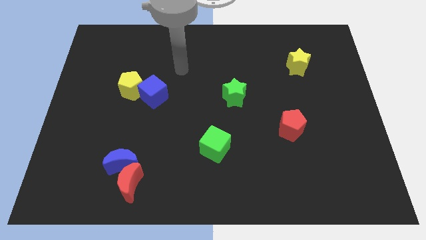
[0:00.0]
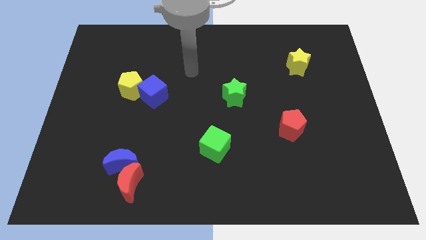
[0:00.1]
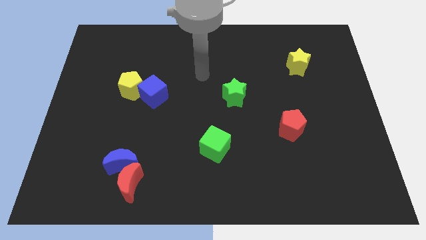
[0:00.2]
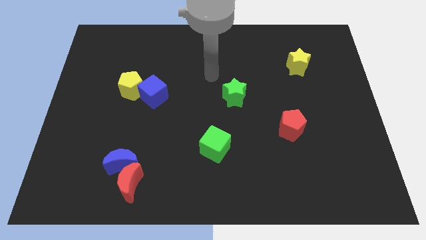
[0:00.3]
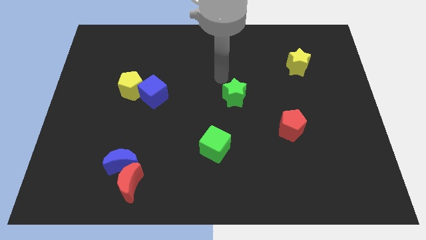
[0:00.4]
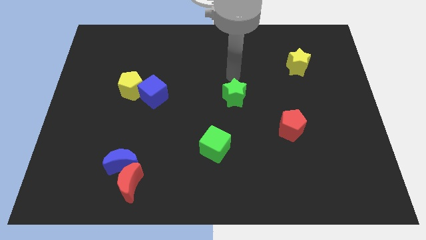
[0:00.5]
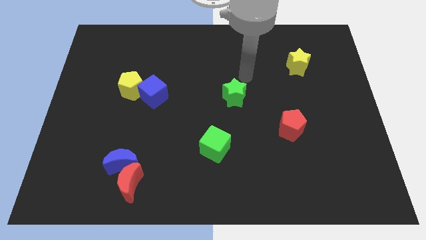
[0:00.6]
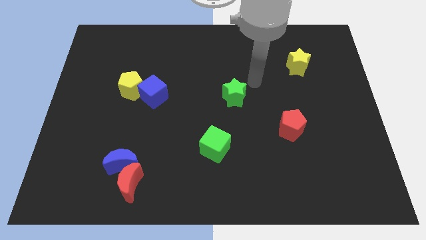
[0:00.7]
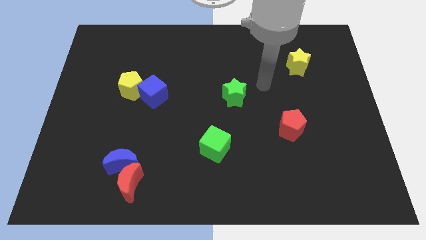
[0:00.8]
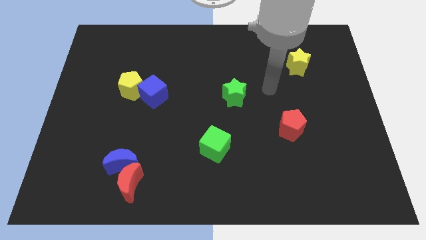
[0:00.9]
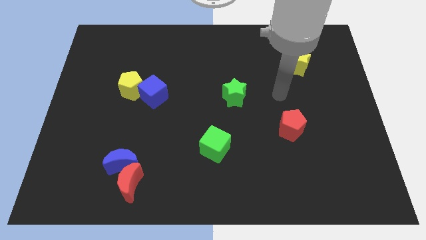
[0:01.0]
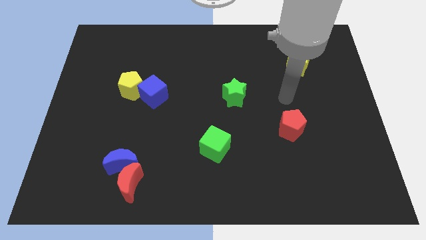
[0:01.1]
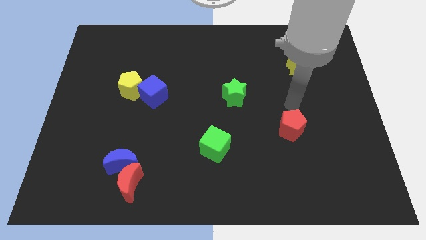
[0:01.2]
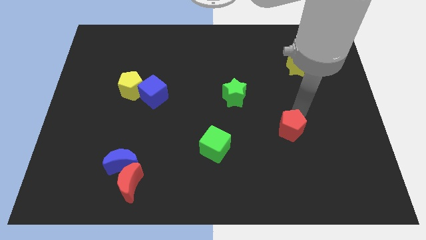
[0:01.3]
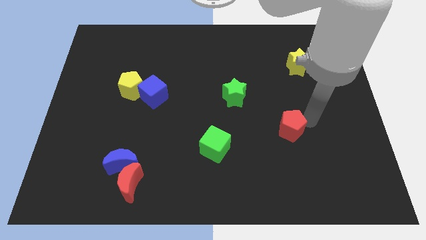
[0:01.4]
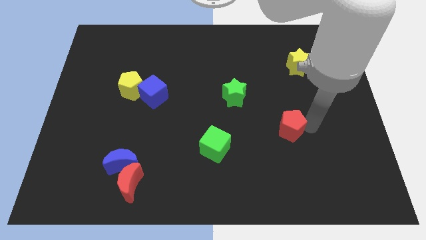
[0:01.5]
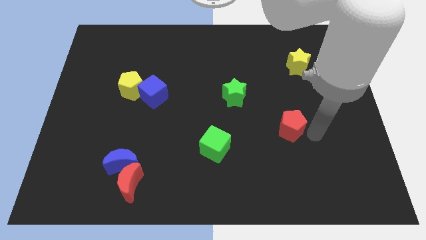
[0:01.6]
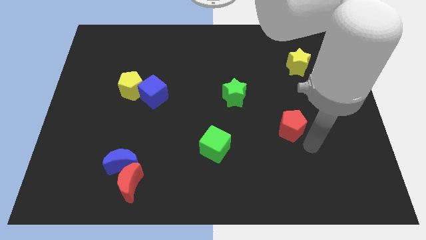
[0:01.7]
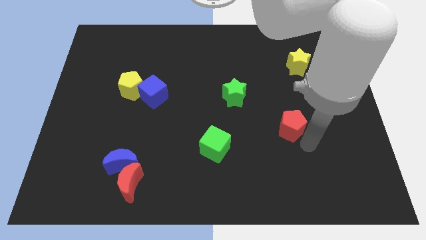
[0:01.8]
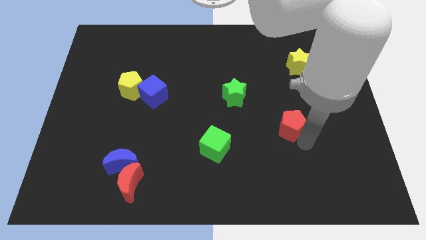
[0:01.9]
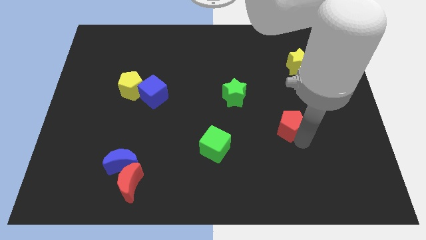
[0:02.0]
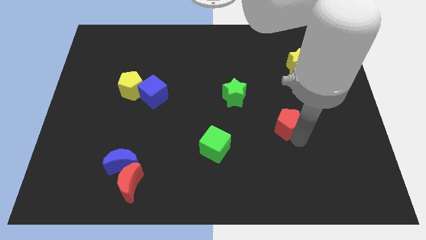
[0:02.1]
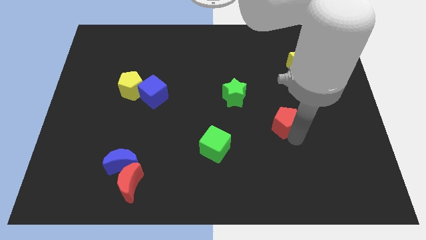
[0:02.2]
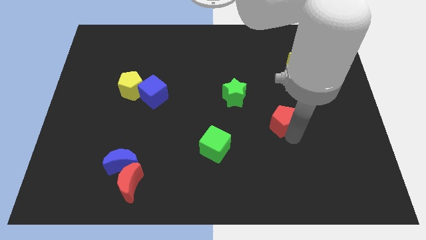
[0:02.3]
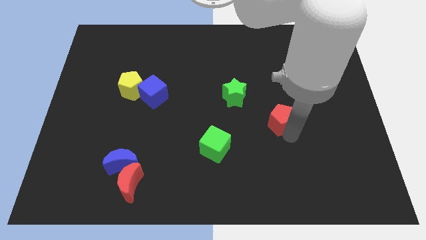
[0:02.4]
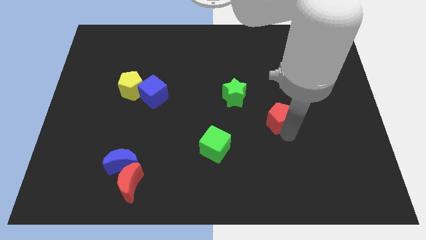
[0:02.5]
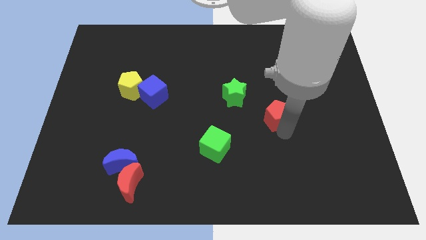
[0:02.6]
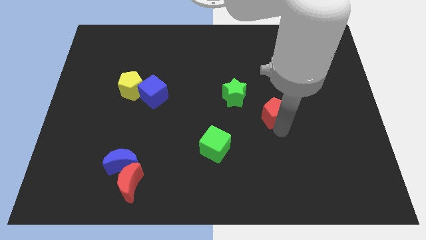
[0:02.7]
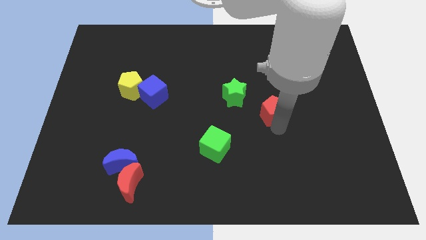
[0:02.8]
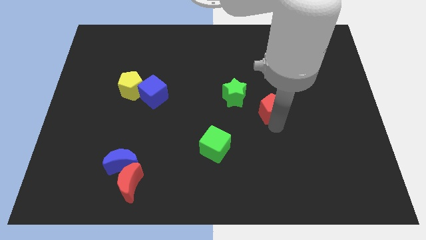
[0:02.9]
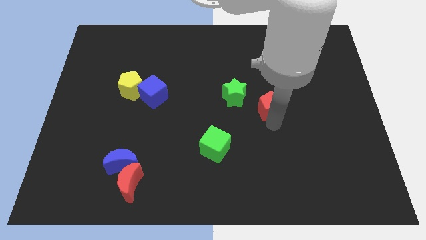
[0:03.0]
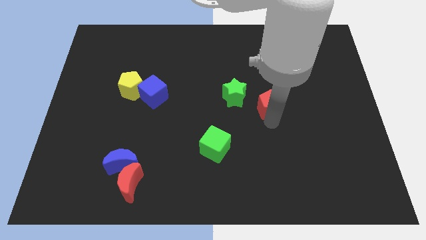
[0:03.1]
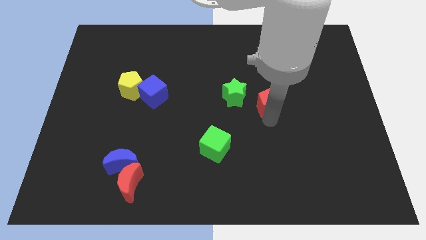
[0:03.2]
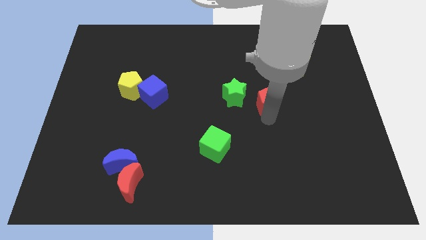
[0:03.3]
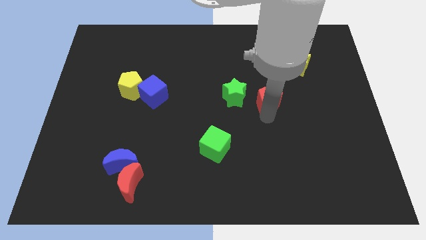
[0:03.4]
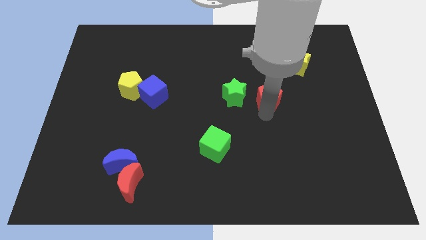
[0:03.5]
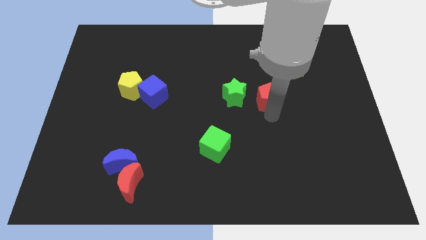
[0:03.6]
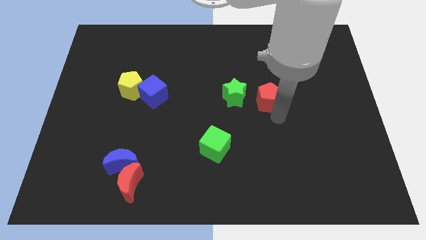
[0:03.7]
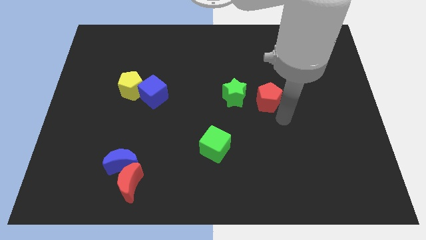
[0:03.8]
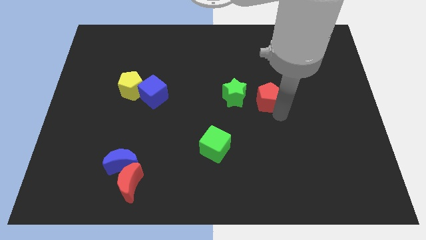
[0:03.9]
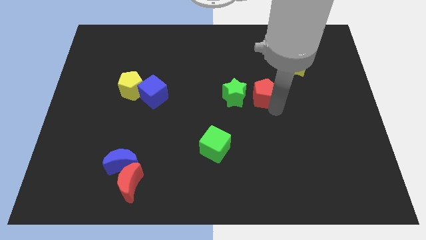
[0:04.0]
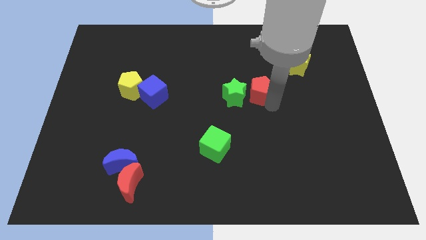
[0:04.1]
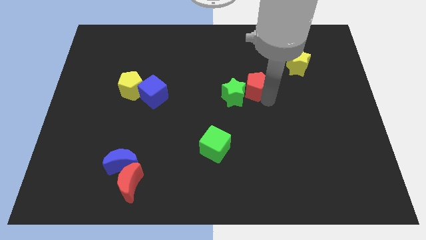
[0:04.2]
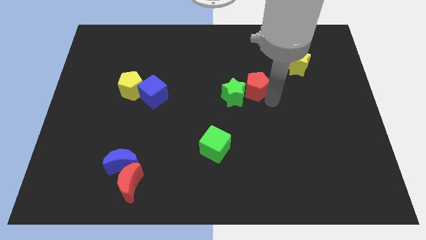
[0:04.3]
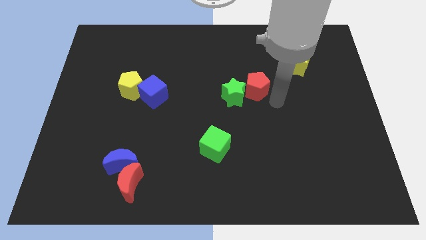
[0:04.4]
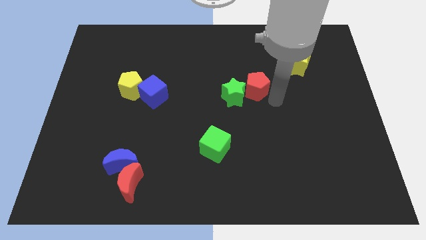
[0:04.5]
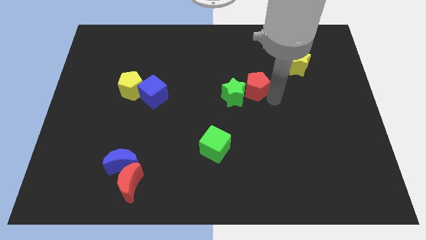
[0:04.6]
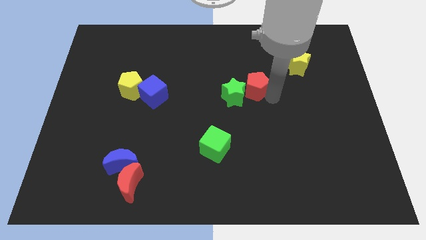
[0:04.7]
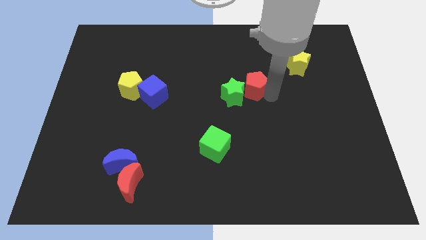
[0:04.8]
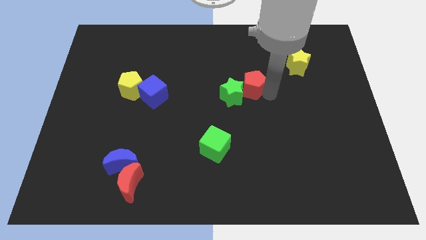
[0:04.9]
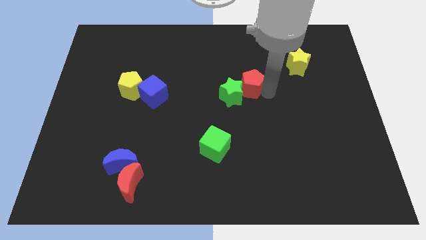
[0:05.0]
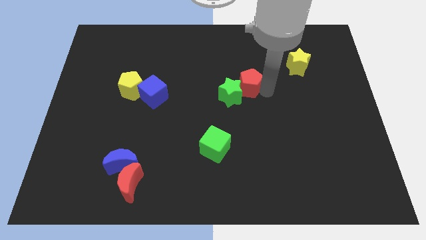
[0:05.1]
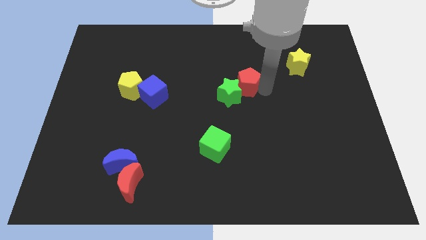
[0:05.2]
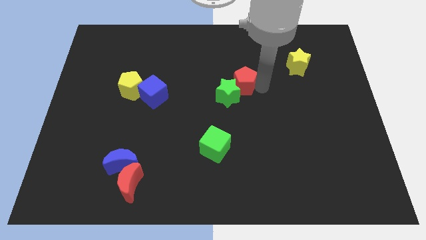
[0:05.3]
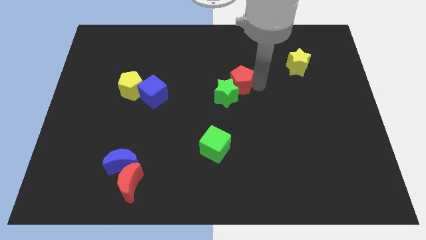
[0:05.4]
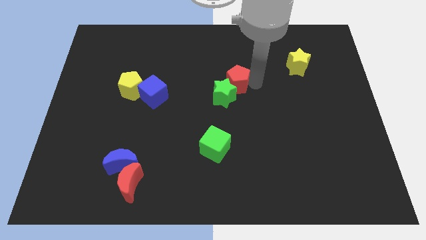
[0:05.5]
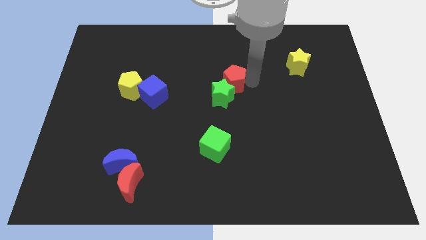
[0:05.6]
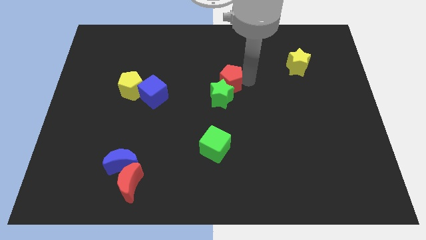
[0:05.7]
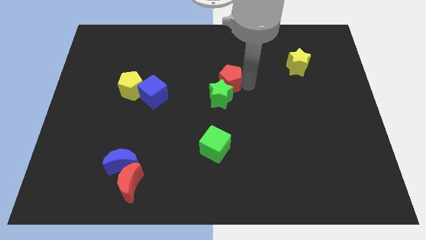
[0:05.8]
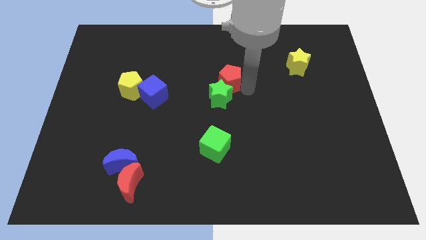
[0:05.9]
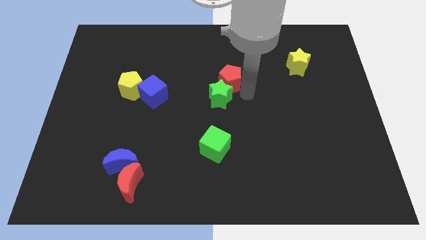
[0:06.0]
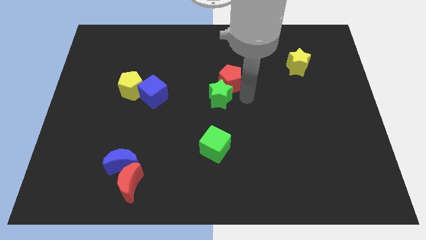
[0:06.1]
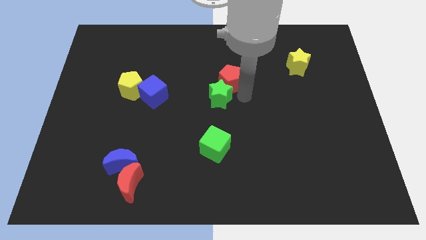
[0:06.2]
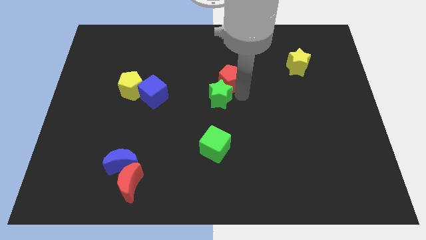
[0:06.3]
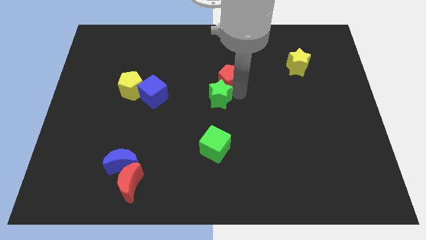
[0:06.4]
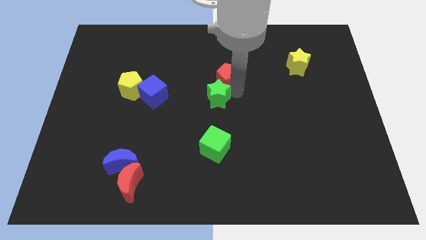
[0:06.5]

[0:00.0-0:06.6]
move the red pentagon diagonally up and left

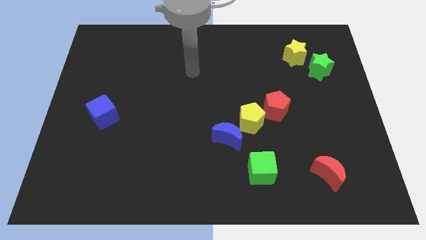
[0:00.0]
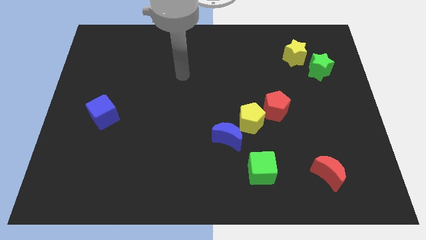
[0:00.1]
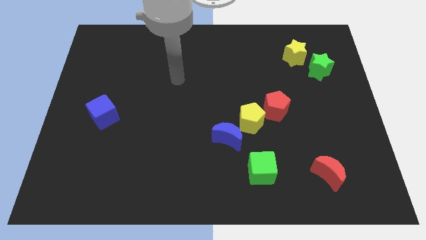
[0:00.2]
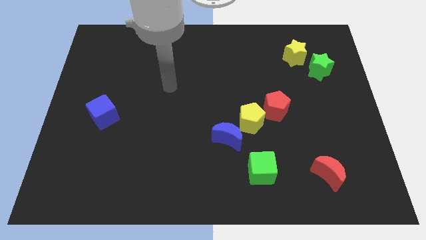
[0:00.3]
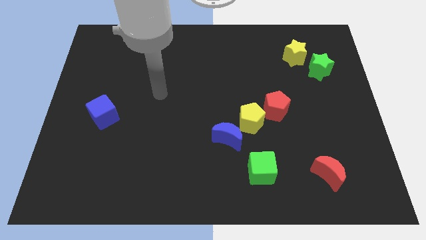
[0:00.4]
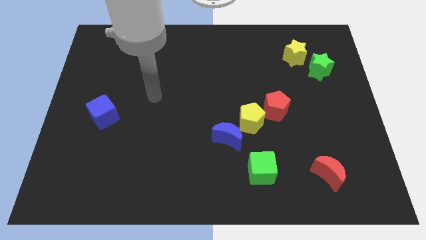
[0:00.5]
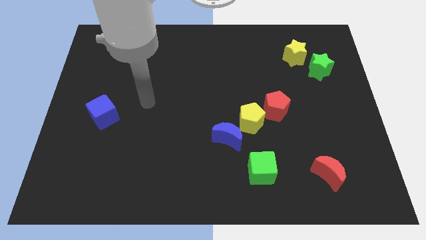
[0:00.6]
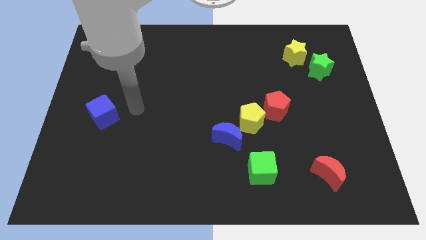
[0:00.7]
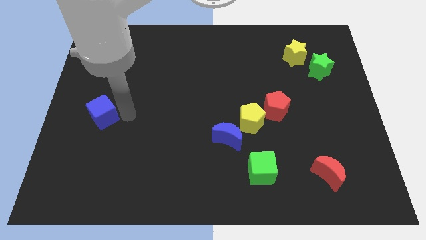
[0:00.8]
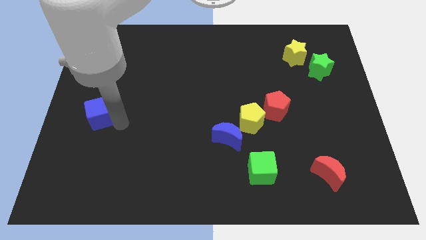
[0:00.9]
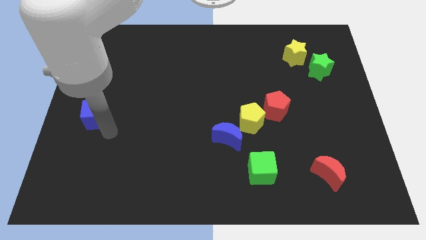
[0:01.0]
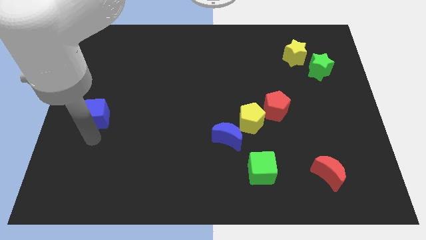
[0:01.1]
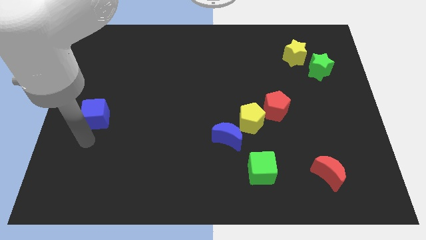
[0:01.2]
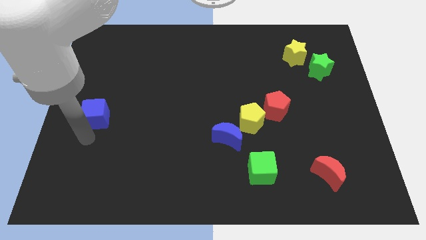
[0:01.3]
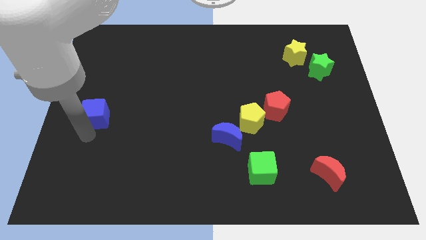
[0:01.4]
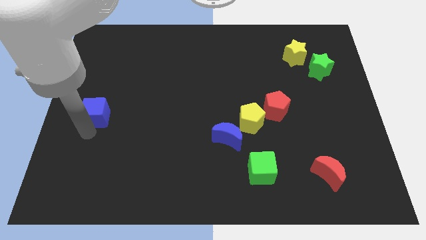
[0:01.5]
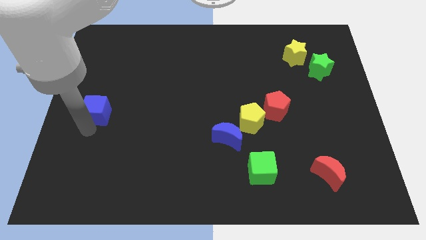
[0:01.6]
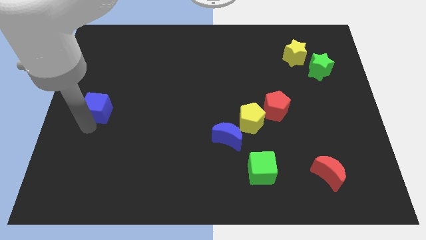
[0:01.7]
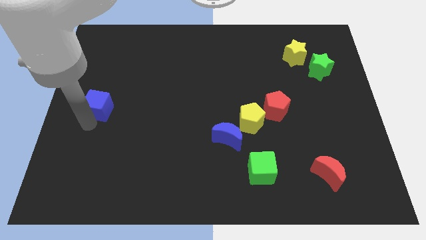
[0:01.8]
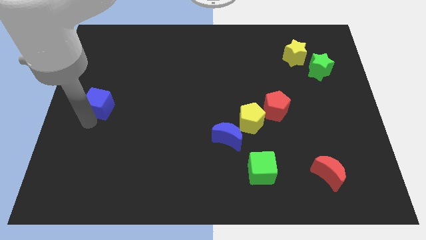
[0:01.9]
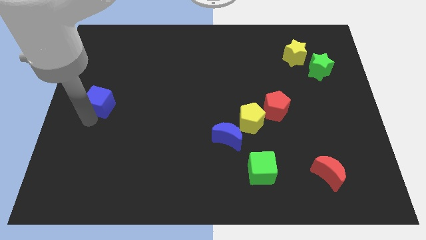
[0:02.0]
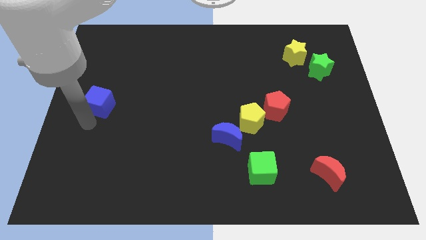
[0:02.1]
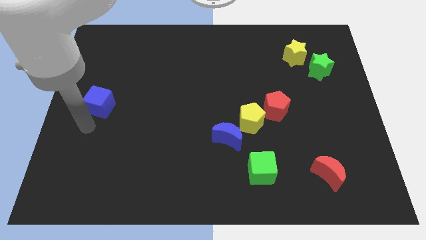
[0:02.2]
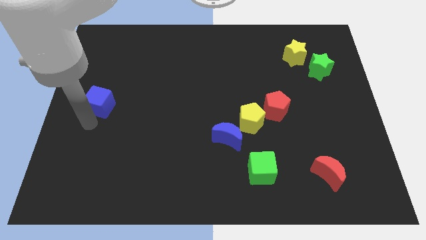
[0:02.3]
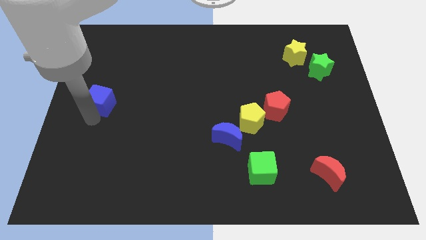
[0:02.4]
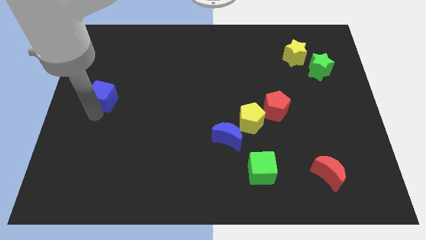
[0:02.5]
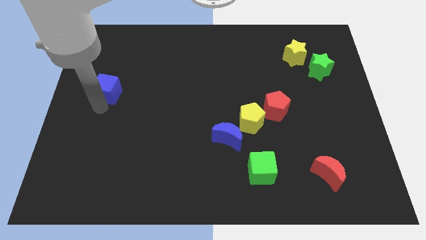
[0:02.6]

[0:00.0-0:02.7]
slide the blue cube a little up
